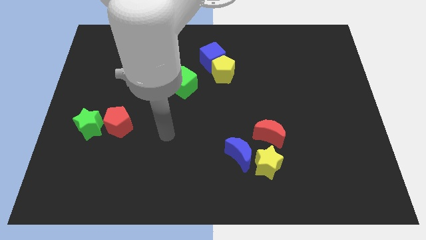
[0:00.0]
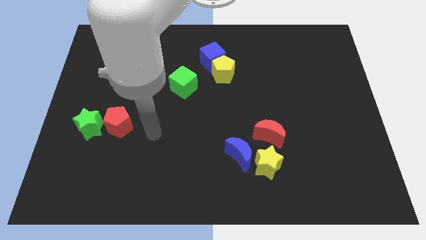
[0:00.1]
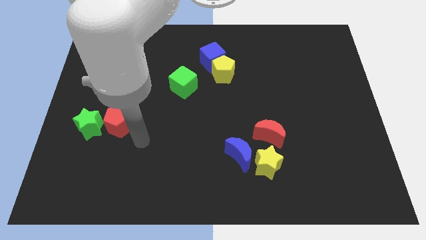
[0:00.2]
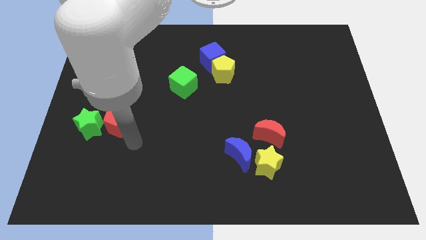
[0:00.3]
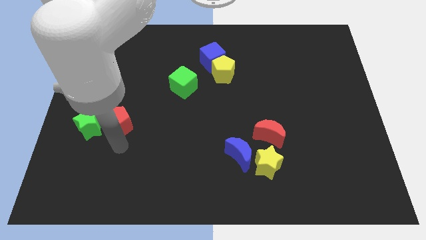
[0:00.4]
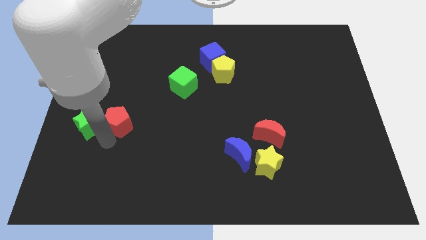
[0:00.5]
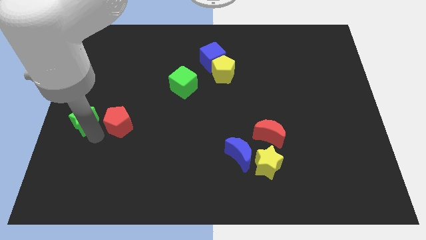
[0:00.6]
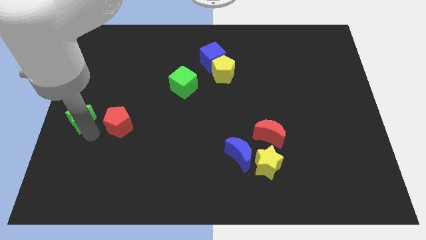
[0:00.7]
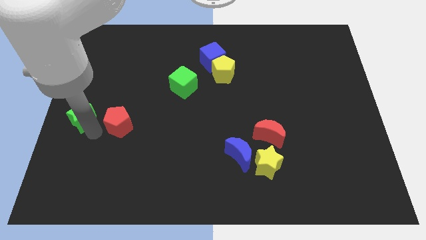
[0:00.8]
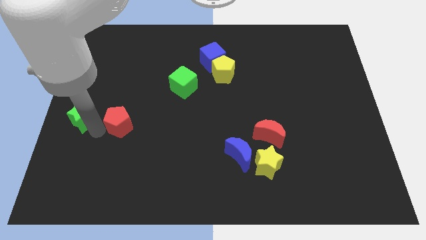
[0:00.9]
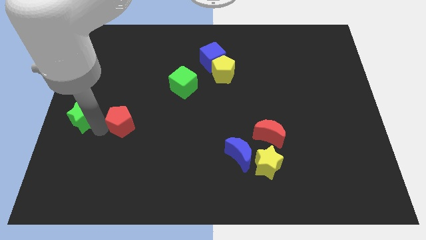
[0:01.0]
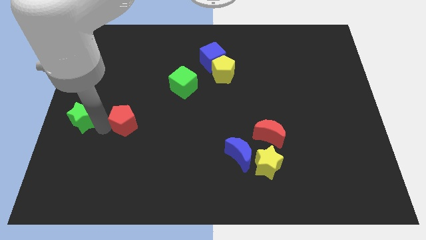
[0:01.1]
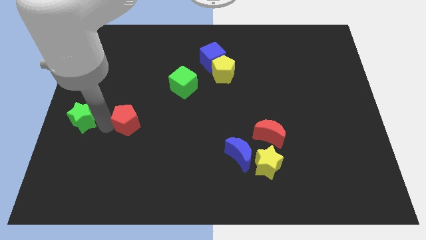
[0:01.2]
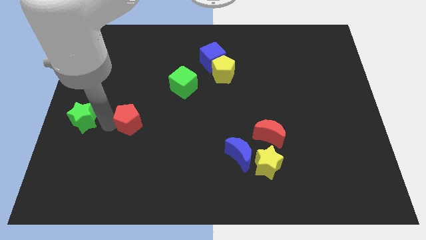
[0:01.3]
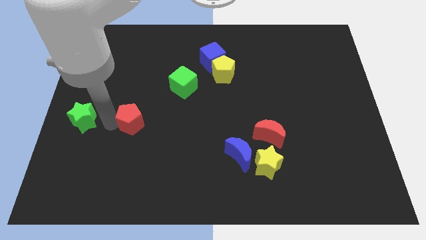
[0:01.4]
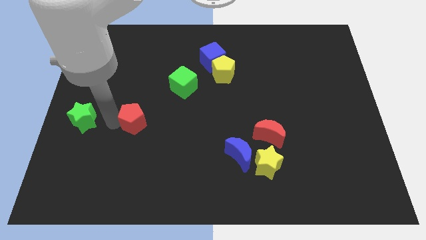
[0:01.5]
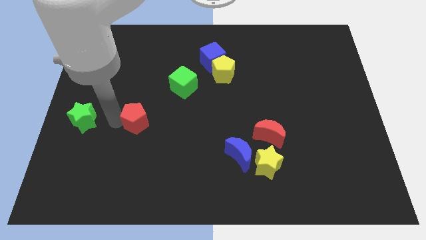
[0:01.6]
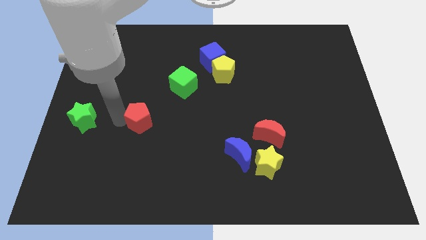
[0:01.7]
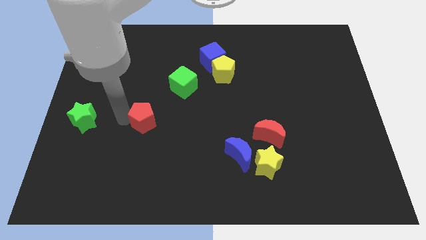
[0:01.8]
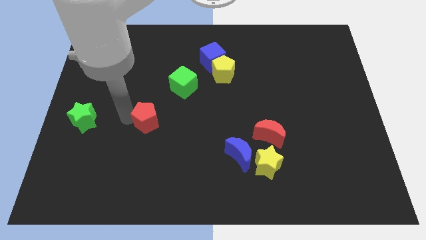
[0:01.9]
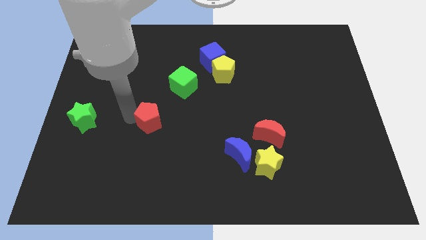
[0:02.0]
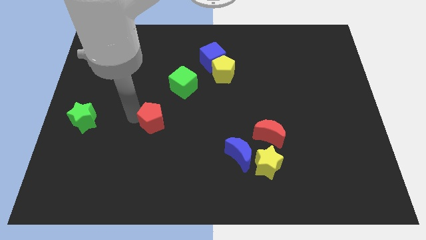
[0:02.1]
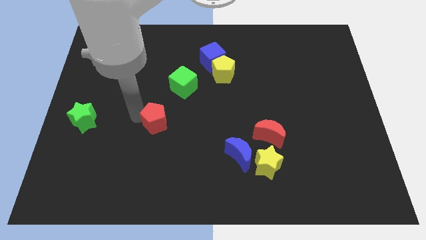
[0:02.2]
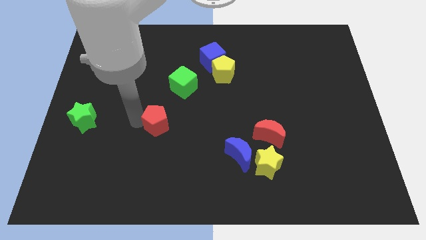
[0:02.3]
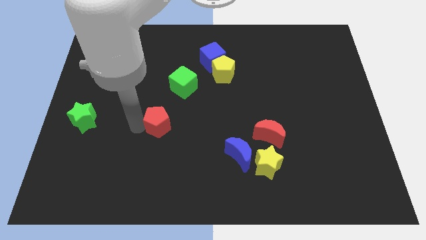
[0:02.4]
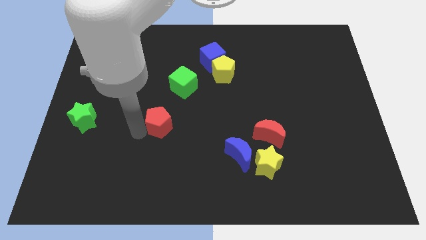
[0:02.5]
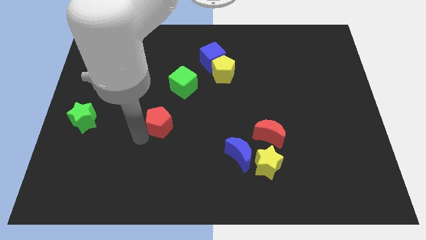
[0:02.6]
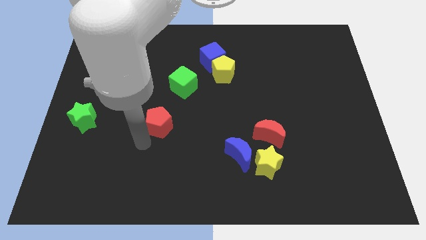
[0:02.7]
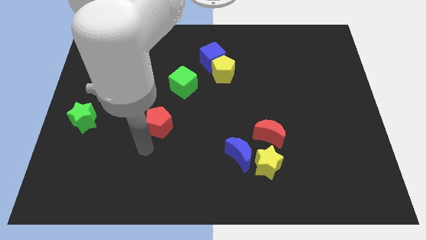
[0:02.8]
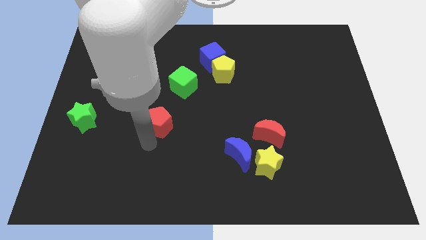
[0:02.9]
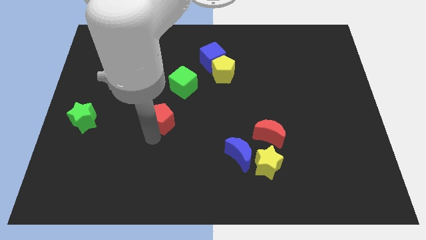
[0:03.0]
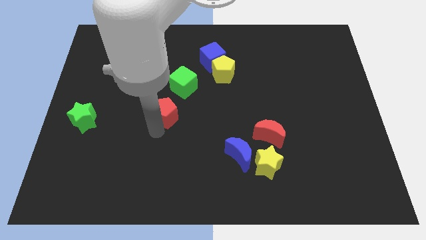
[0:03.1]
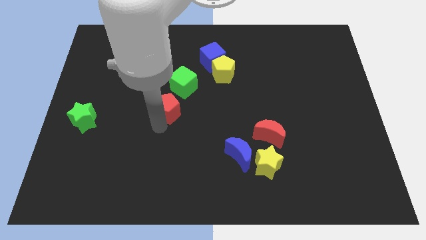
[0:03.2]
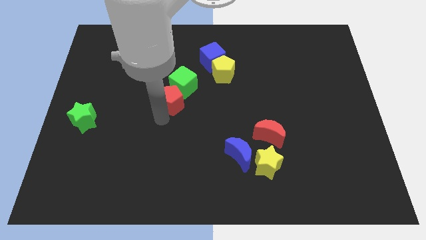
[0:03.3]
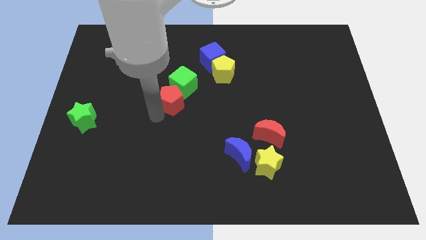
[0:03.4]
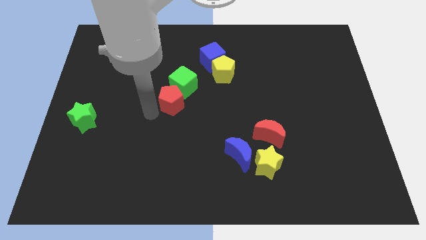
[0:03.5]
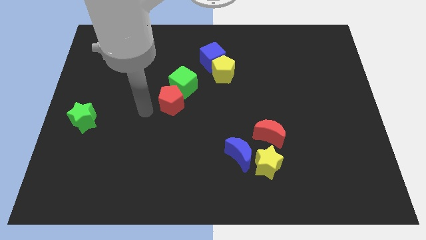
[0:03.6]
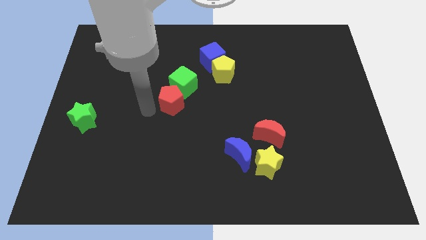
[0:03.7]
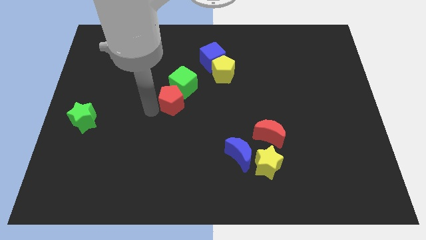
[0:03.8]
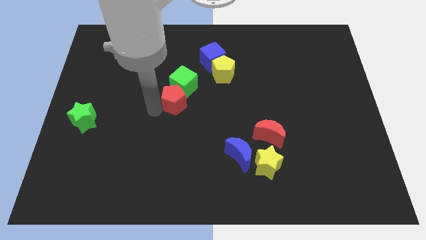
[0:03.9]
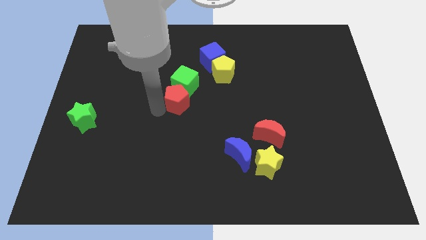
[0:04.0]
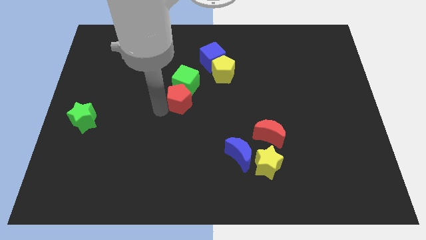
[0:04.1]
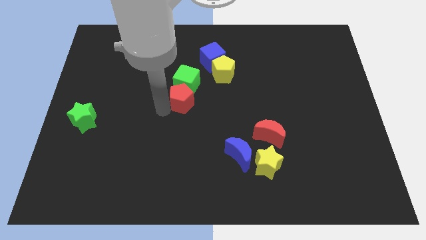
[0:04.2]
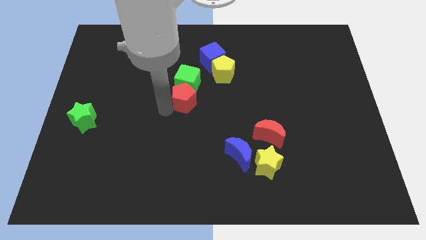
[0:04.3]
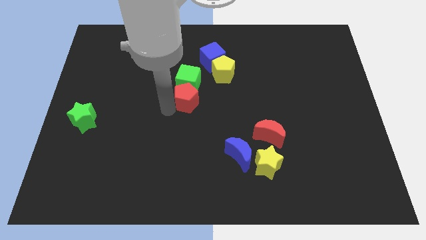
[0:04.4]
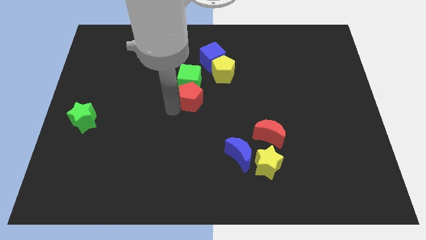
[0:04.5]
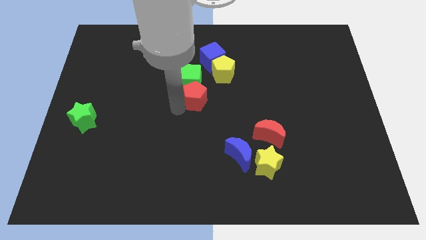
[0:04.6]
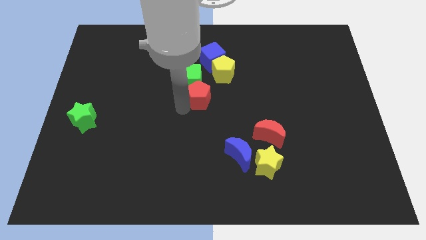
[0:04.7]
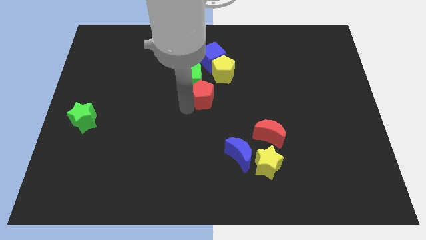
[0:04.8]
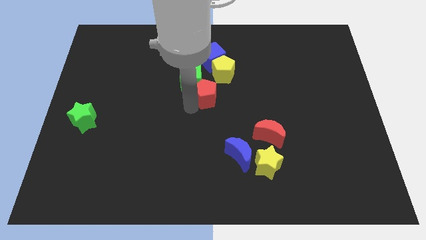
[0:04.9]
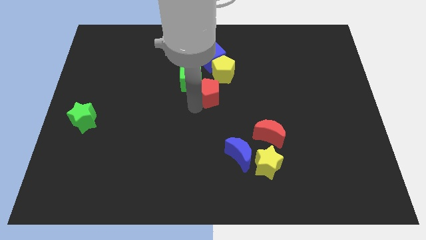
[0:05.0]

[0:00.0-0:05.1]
move the red pentagon right of the green cube

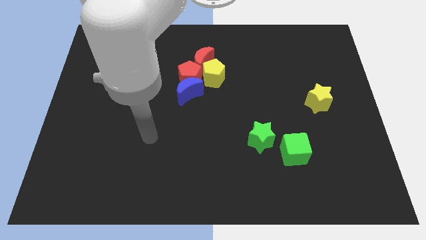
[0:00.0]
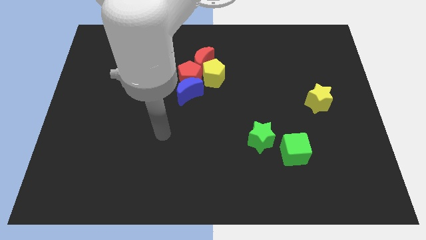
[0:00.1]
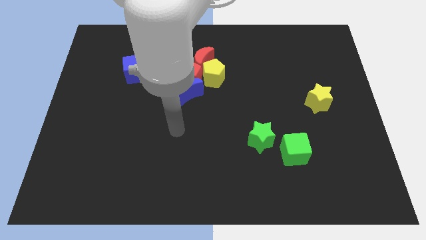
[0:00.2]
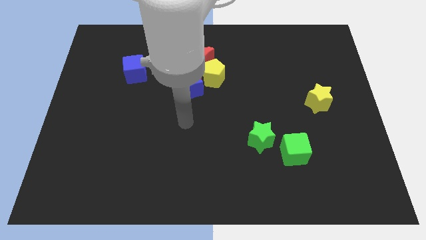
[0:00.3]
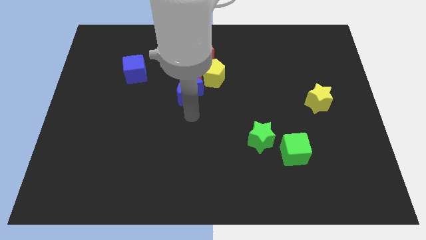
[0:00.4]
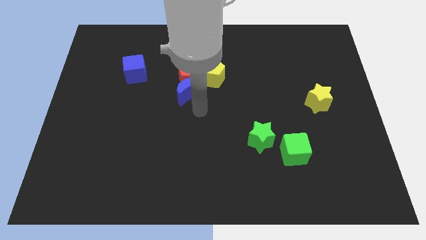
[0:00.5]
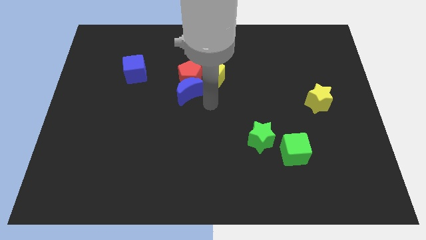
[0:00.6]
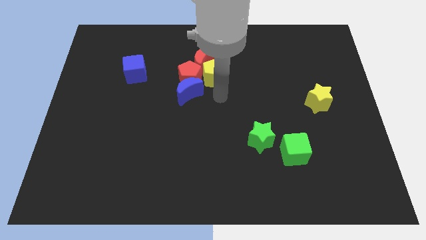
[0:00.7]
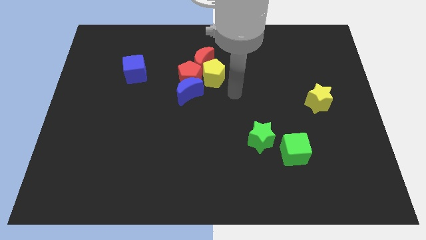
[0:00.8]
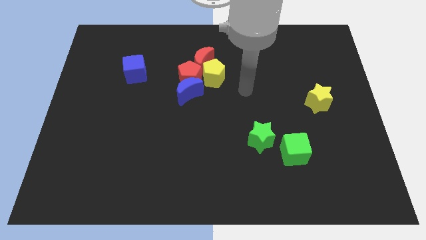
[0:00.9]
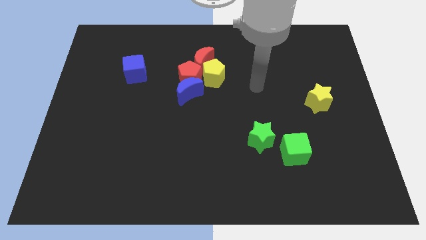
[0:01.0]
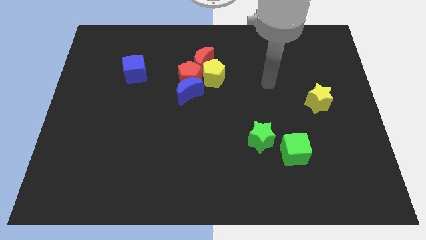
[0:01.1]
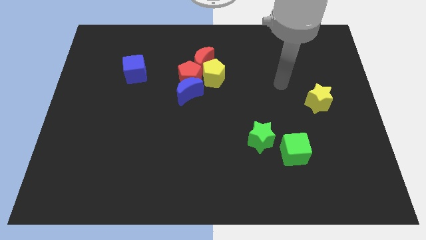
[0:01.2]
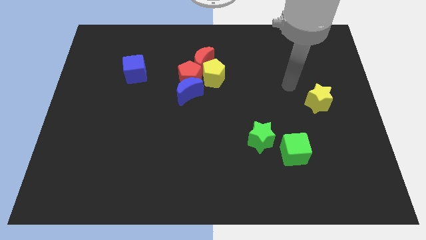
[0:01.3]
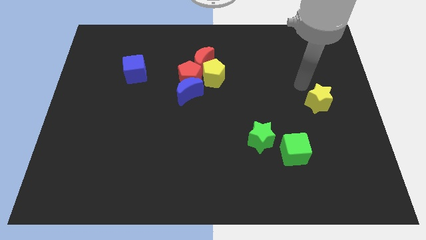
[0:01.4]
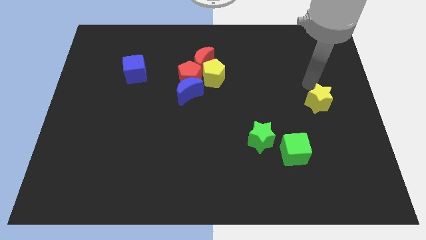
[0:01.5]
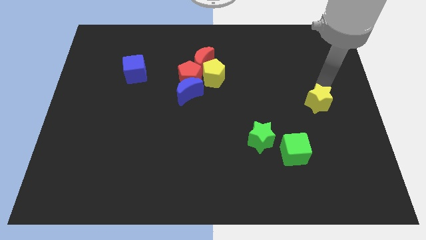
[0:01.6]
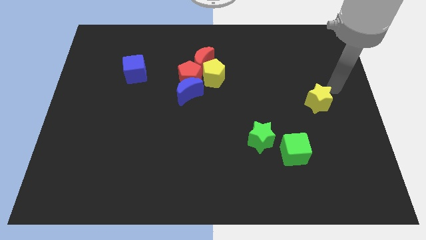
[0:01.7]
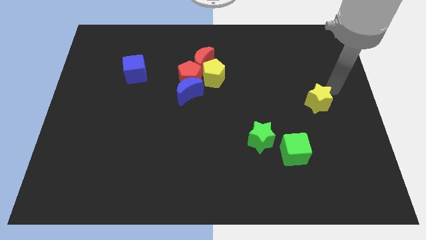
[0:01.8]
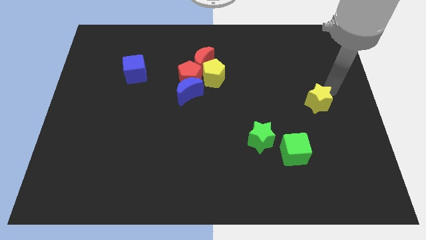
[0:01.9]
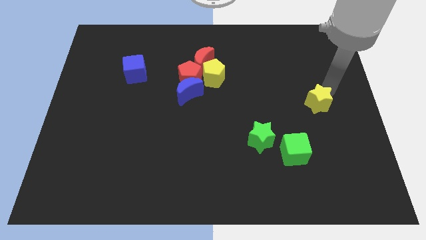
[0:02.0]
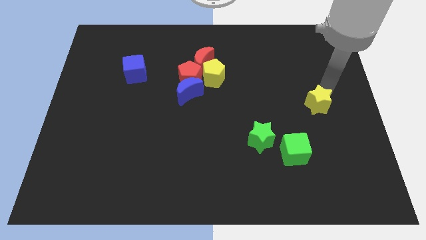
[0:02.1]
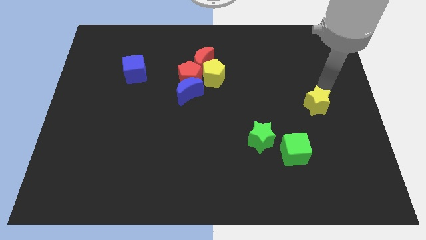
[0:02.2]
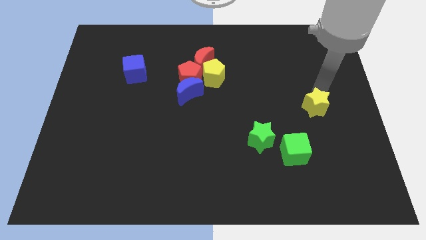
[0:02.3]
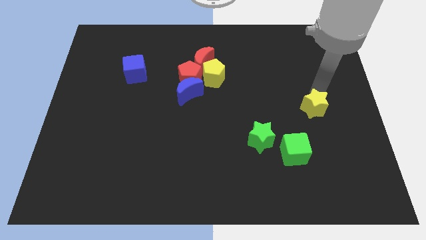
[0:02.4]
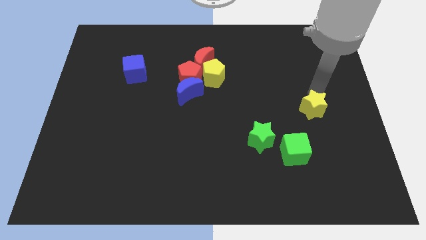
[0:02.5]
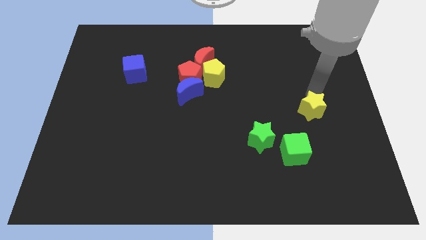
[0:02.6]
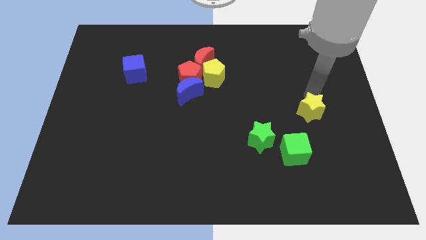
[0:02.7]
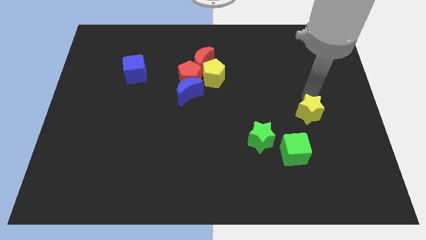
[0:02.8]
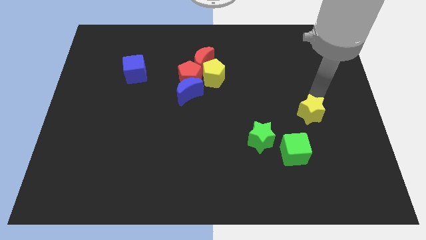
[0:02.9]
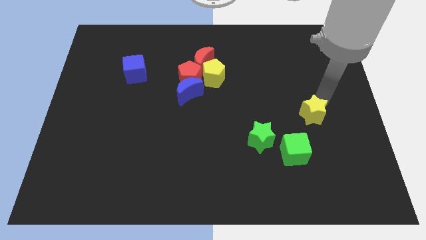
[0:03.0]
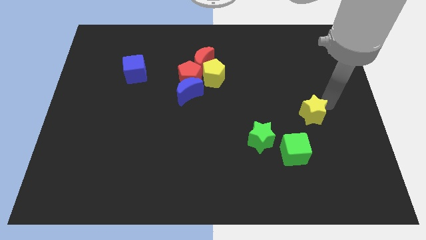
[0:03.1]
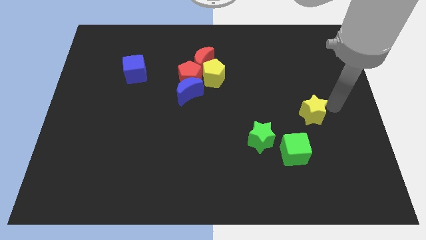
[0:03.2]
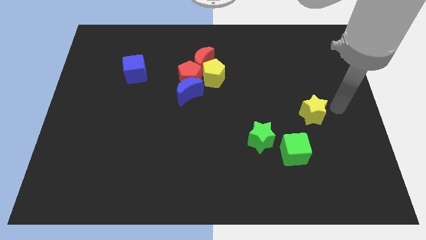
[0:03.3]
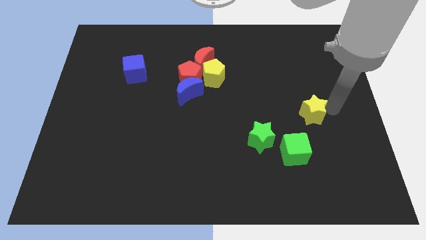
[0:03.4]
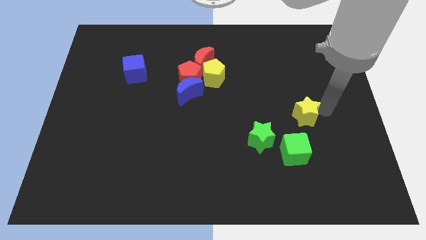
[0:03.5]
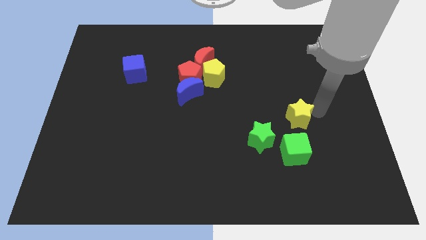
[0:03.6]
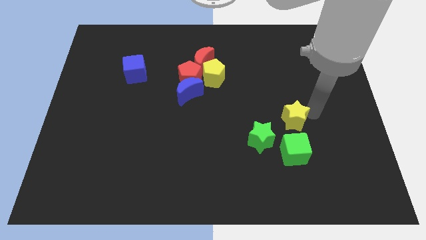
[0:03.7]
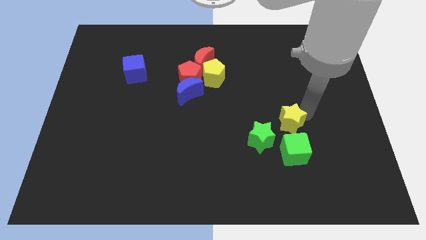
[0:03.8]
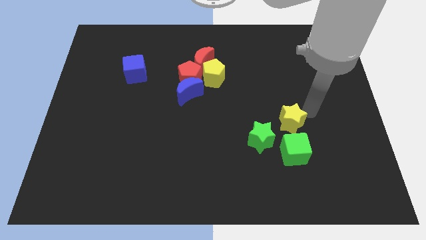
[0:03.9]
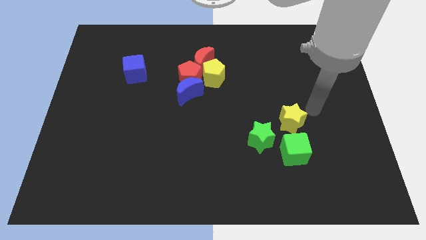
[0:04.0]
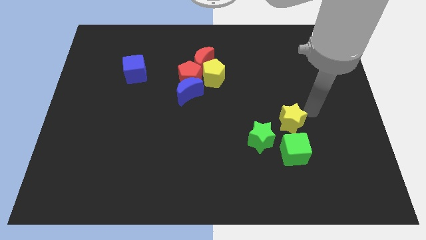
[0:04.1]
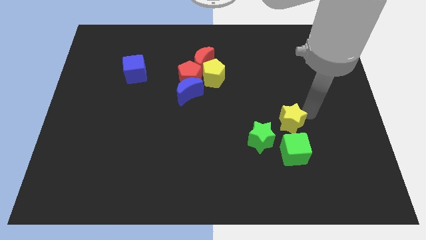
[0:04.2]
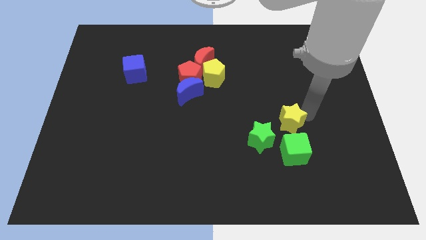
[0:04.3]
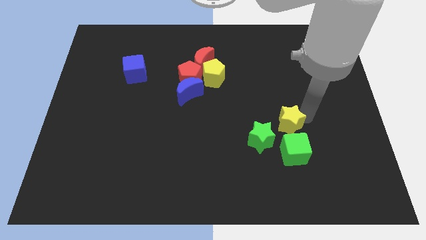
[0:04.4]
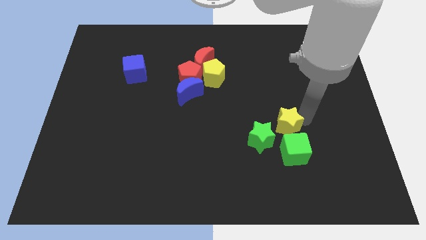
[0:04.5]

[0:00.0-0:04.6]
put the yellow star to the top left of the green cube
